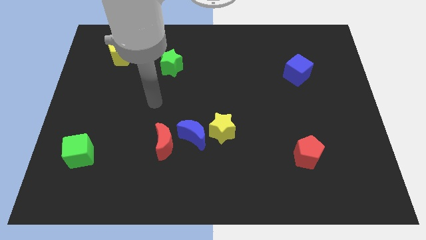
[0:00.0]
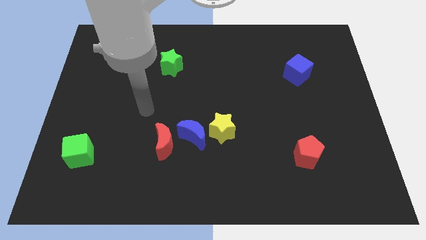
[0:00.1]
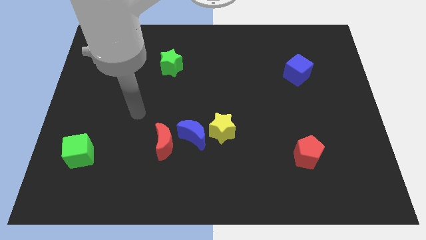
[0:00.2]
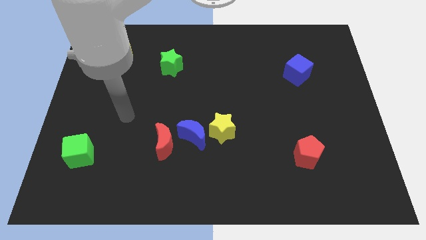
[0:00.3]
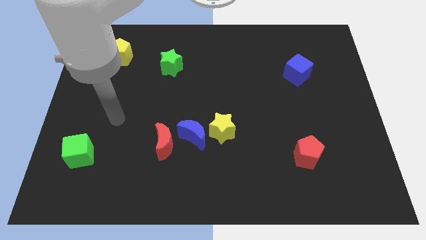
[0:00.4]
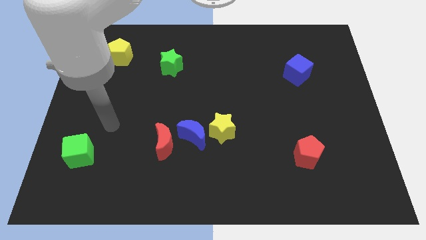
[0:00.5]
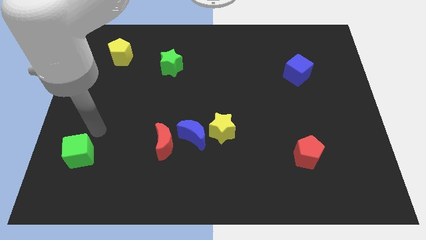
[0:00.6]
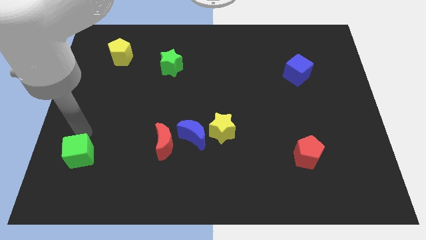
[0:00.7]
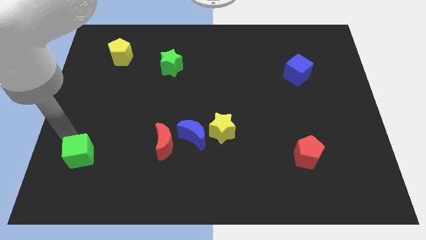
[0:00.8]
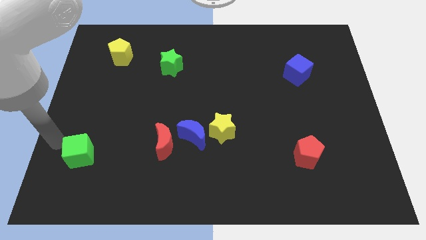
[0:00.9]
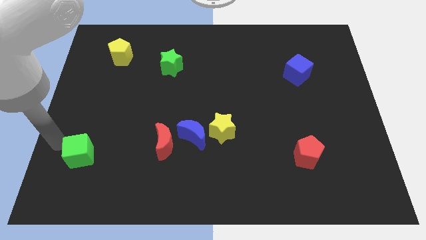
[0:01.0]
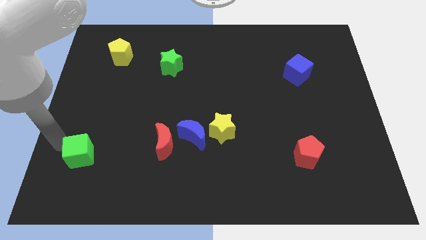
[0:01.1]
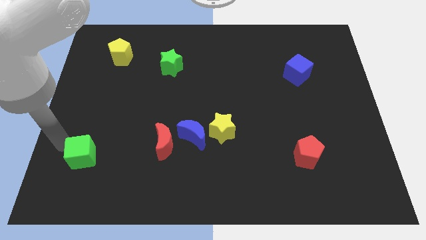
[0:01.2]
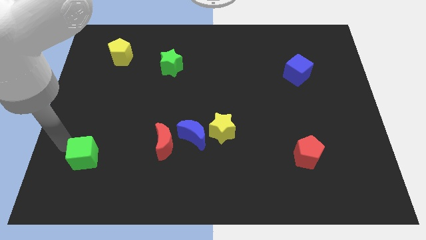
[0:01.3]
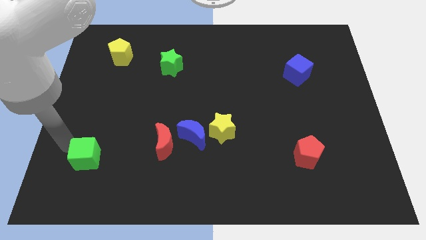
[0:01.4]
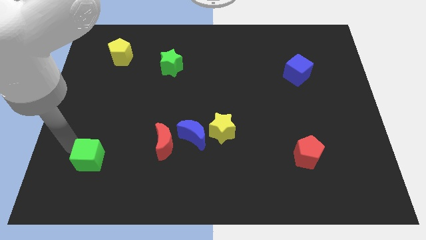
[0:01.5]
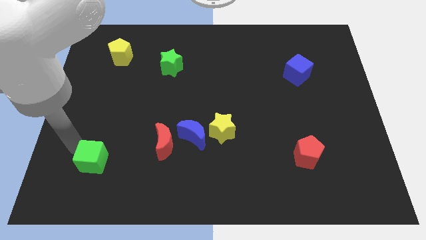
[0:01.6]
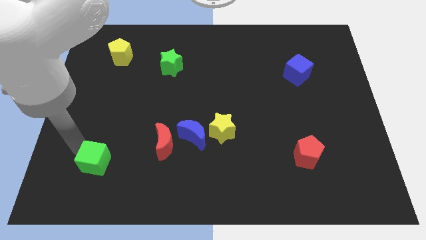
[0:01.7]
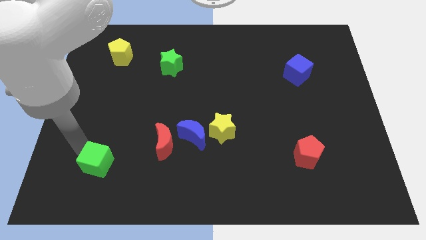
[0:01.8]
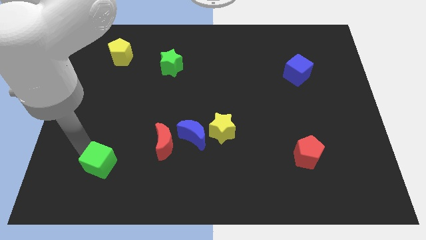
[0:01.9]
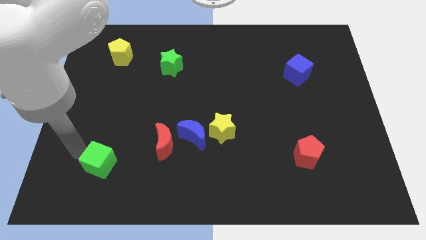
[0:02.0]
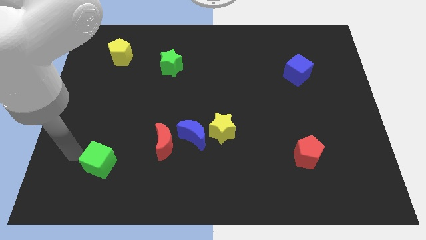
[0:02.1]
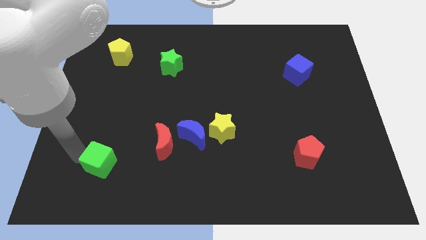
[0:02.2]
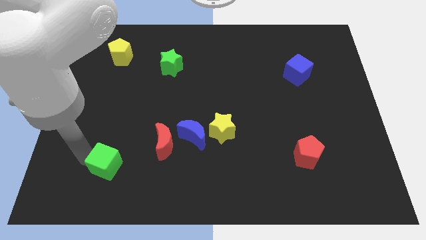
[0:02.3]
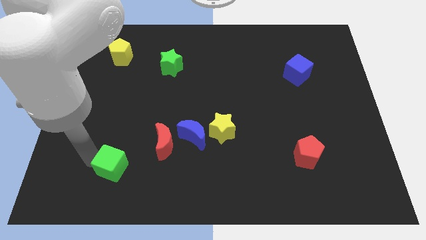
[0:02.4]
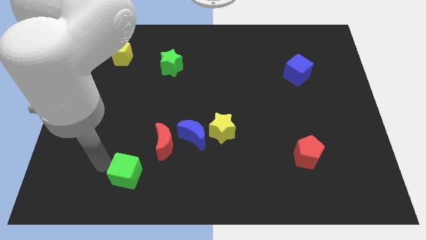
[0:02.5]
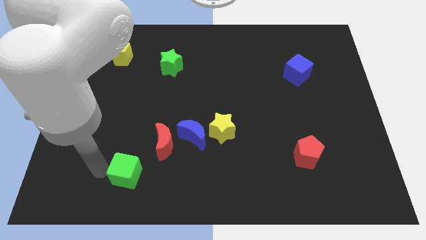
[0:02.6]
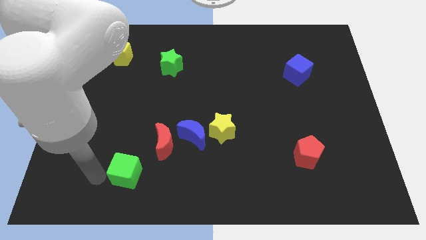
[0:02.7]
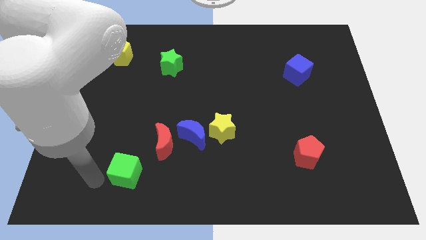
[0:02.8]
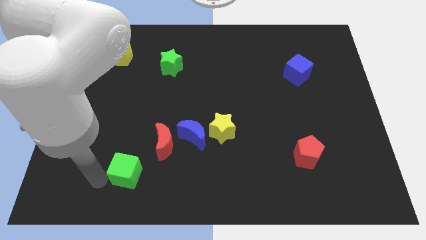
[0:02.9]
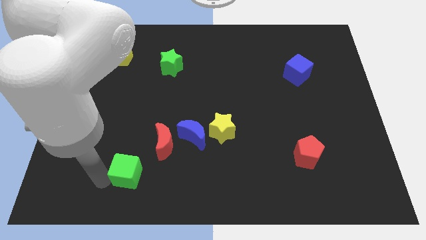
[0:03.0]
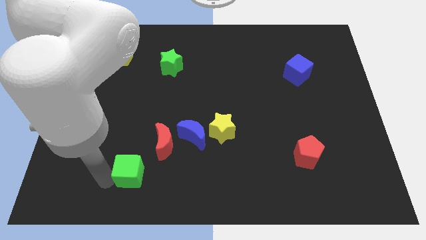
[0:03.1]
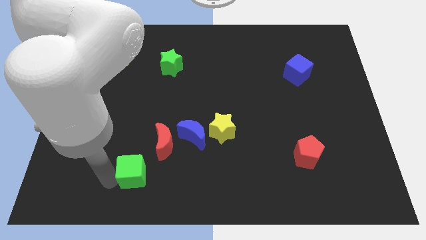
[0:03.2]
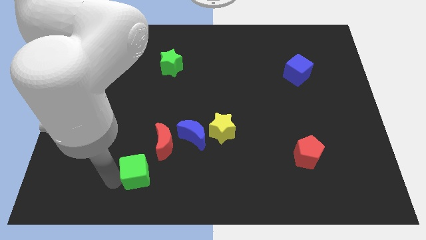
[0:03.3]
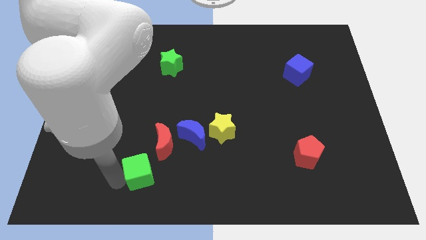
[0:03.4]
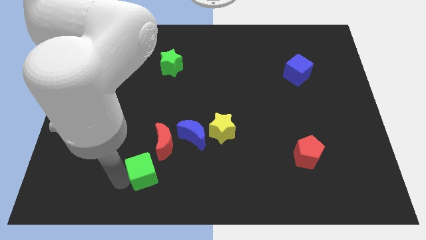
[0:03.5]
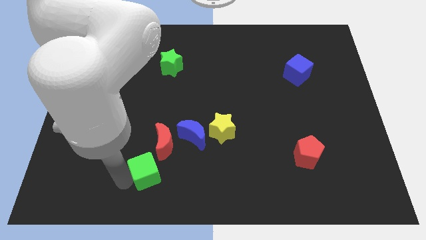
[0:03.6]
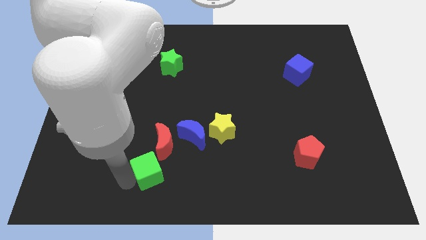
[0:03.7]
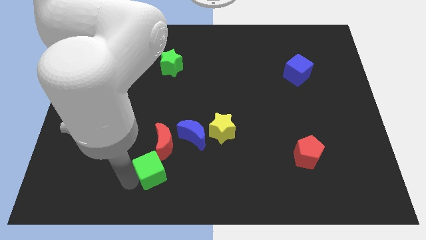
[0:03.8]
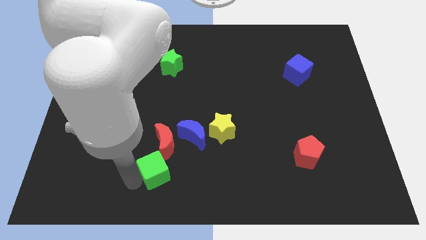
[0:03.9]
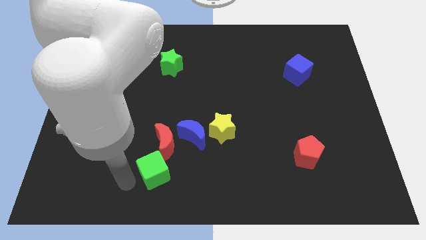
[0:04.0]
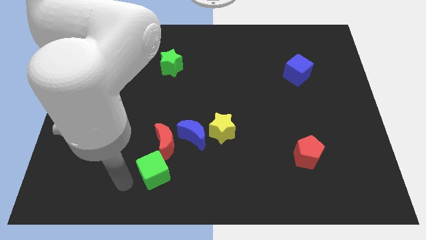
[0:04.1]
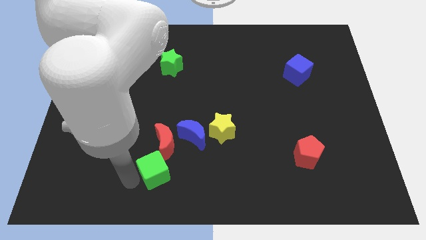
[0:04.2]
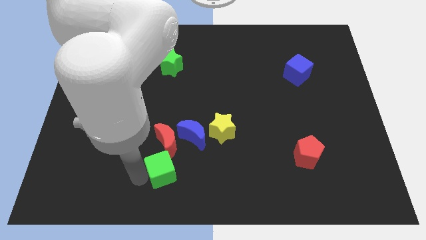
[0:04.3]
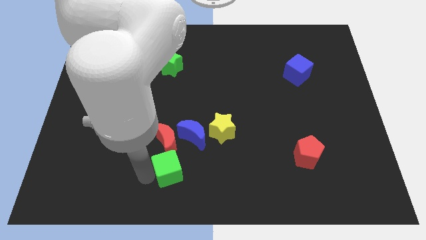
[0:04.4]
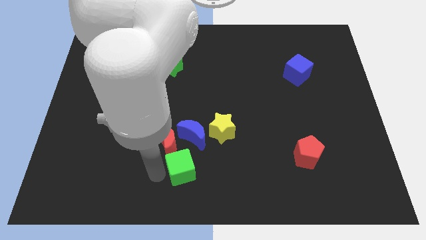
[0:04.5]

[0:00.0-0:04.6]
push the green cube to the right

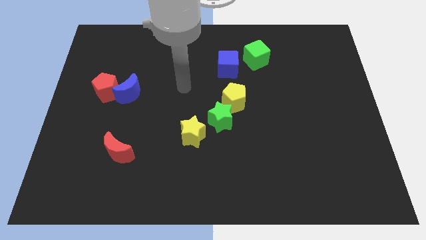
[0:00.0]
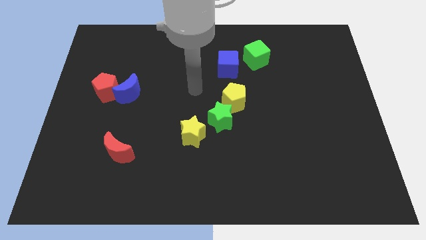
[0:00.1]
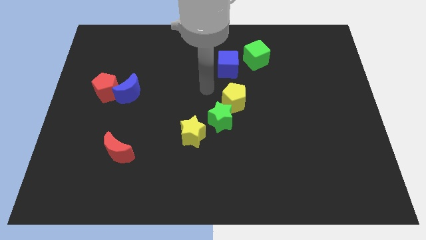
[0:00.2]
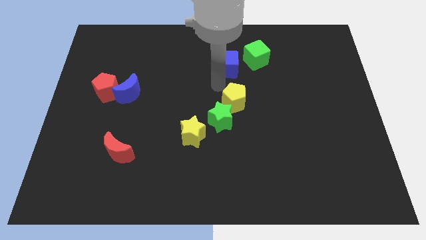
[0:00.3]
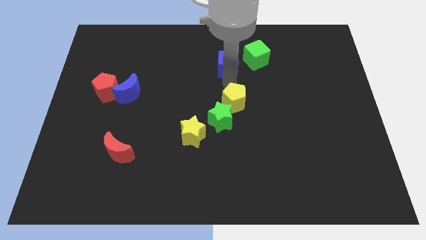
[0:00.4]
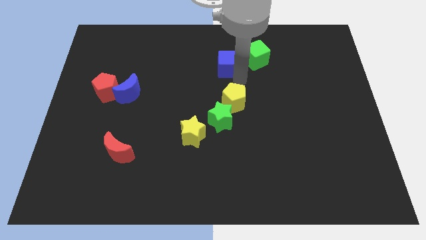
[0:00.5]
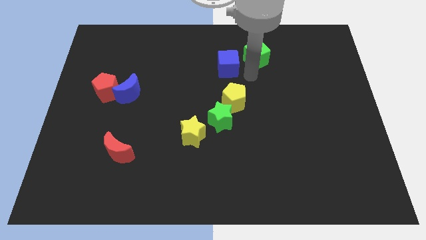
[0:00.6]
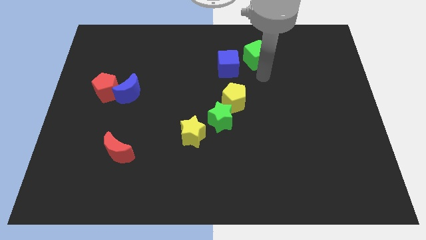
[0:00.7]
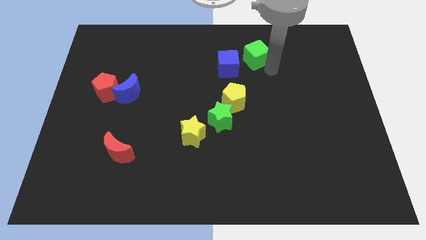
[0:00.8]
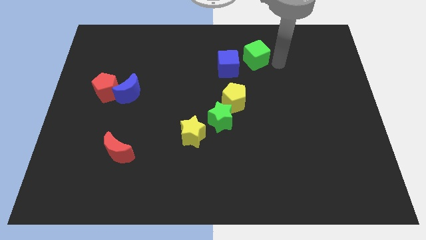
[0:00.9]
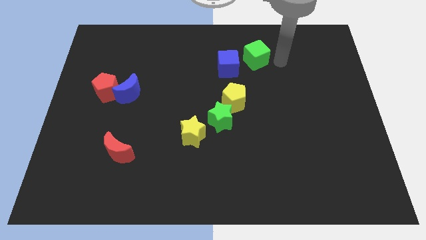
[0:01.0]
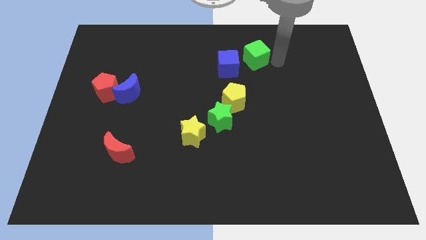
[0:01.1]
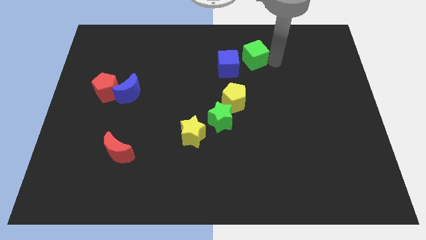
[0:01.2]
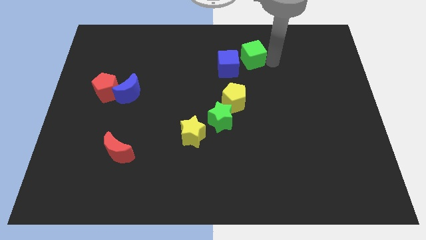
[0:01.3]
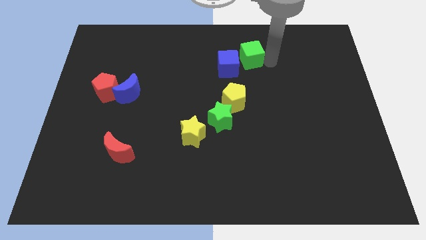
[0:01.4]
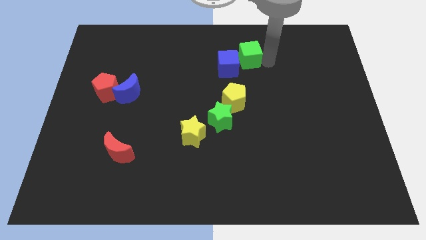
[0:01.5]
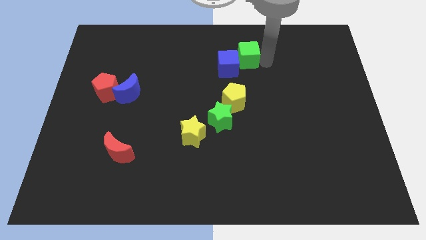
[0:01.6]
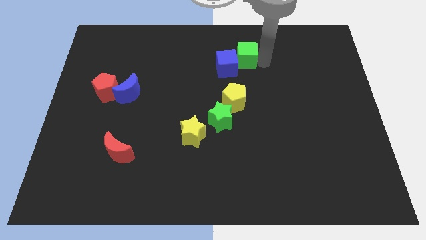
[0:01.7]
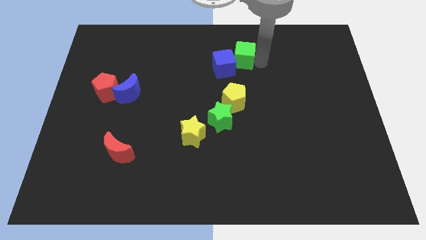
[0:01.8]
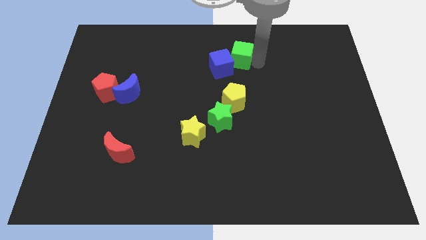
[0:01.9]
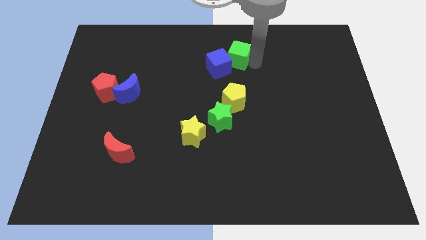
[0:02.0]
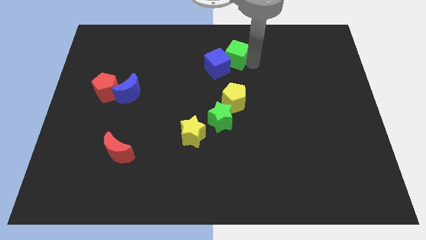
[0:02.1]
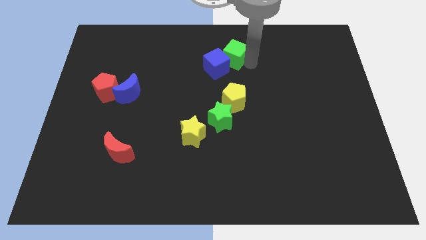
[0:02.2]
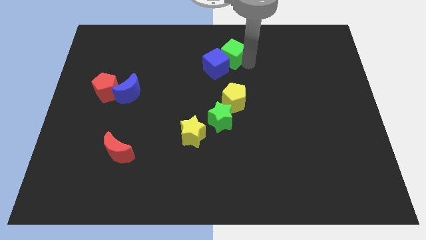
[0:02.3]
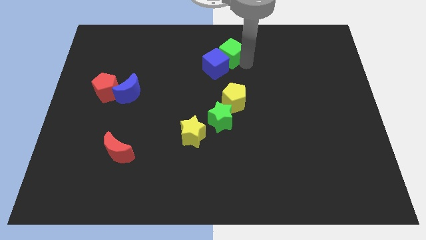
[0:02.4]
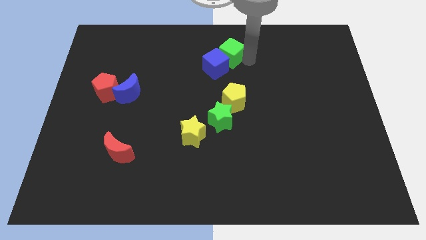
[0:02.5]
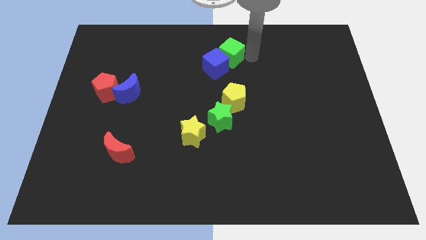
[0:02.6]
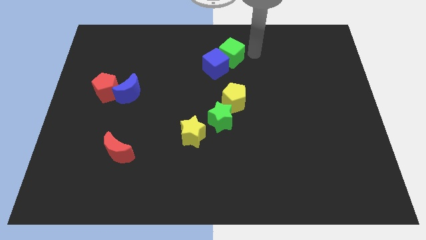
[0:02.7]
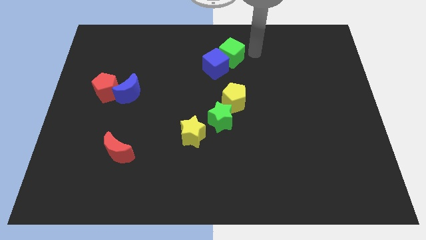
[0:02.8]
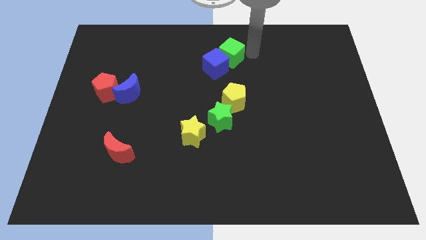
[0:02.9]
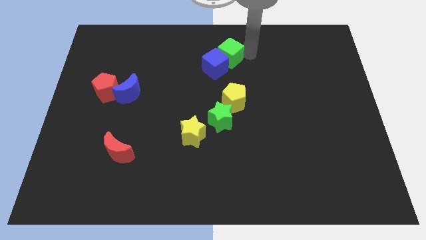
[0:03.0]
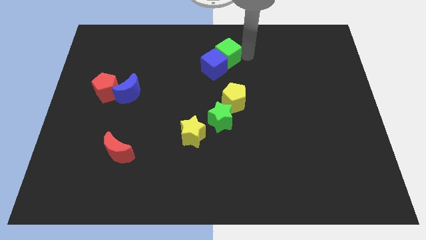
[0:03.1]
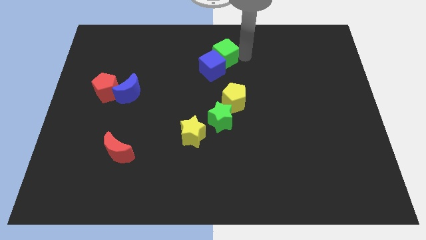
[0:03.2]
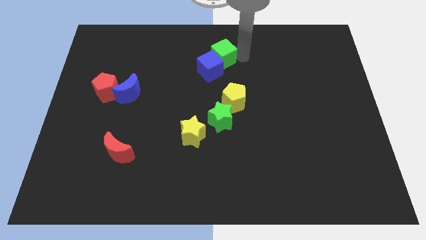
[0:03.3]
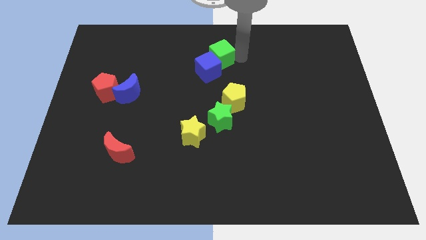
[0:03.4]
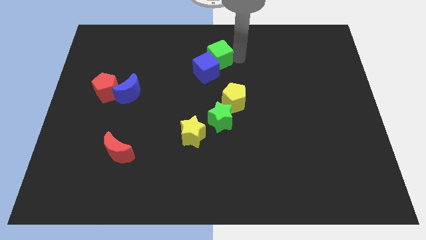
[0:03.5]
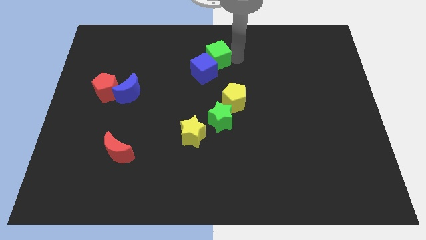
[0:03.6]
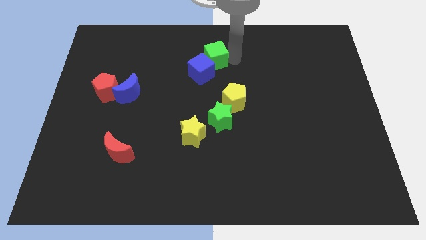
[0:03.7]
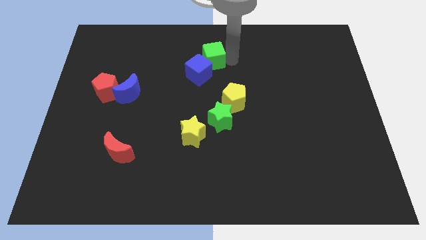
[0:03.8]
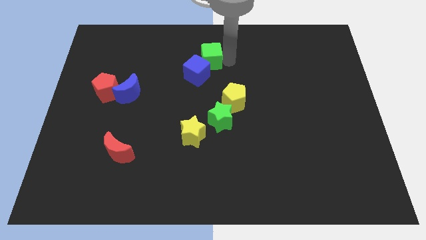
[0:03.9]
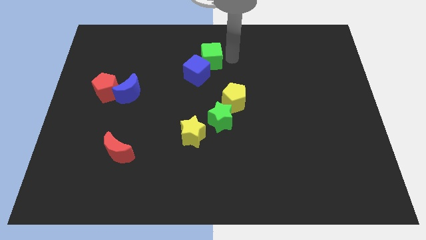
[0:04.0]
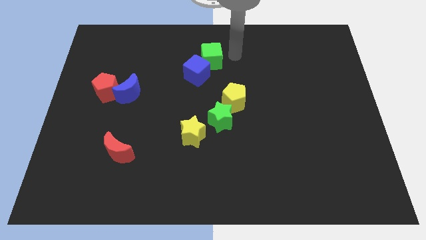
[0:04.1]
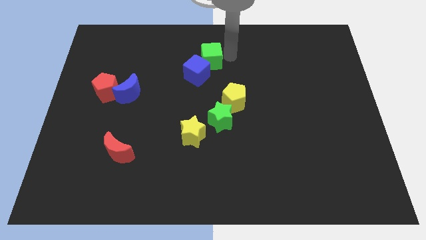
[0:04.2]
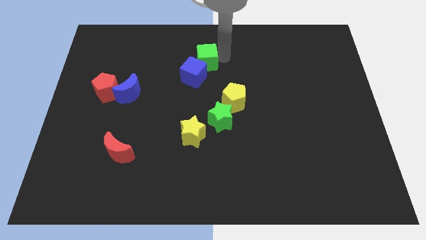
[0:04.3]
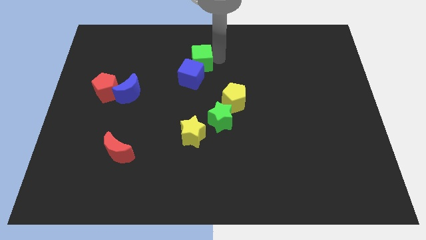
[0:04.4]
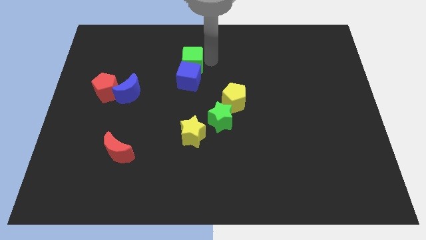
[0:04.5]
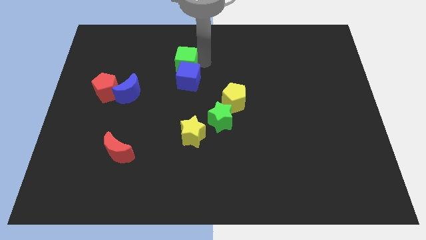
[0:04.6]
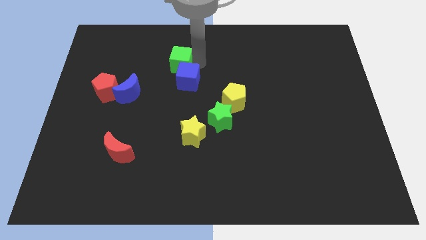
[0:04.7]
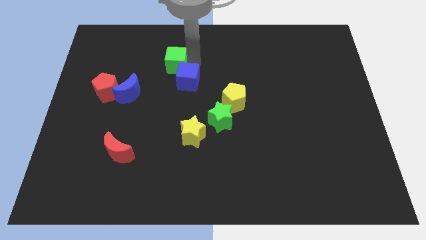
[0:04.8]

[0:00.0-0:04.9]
slide the green cube left
